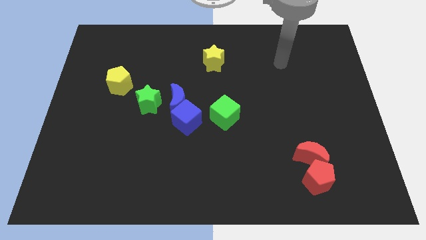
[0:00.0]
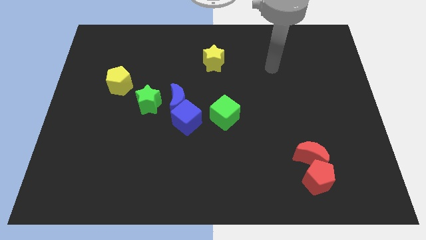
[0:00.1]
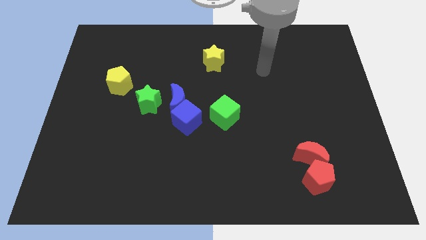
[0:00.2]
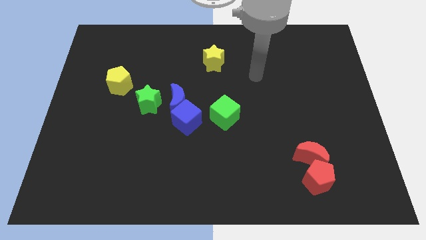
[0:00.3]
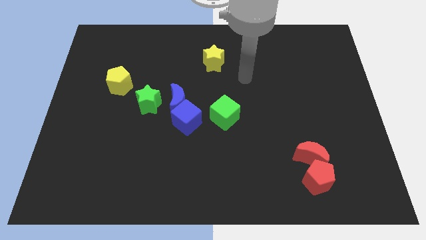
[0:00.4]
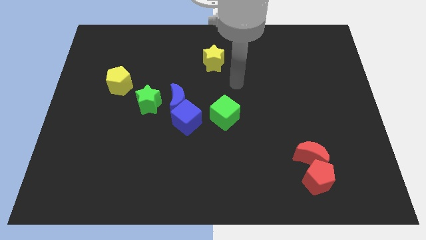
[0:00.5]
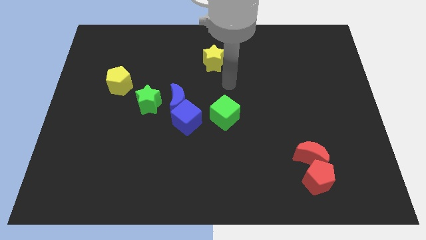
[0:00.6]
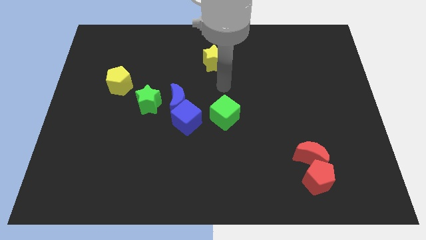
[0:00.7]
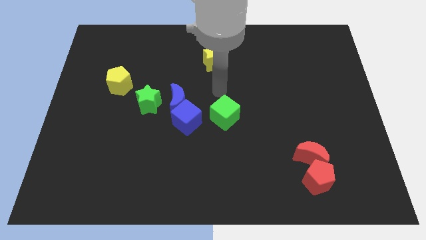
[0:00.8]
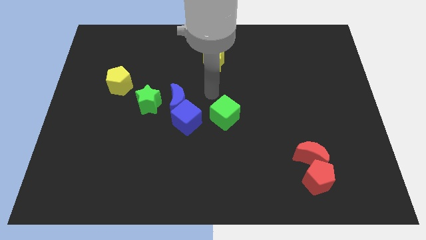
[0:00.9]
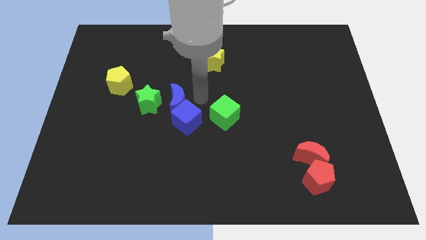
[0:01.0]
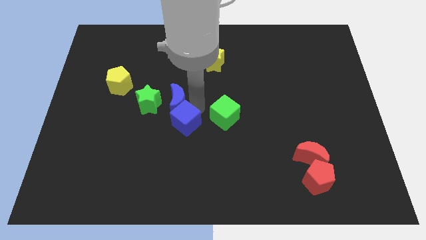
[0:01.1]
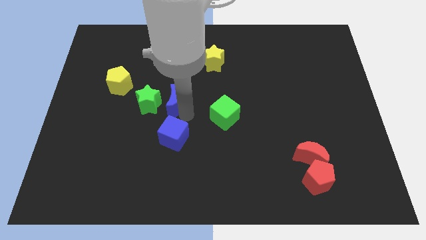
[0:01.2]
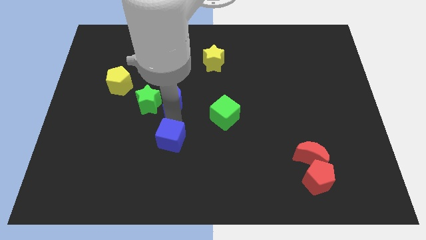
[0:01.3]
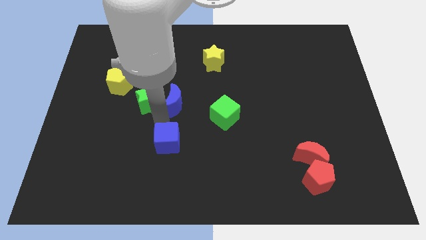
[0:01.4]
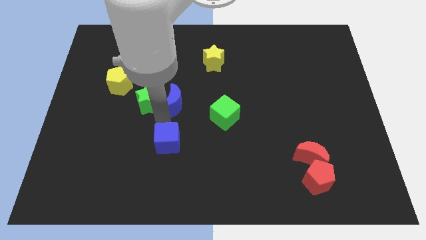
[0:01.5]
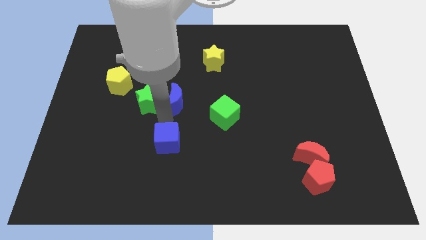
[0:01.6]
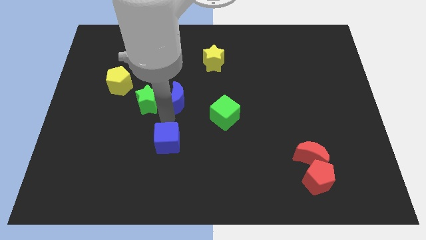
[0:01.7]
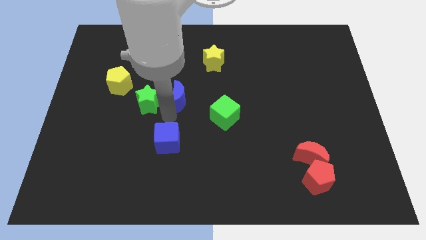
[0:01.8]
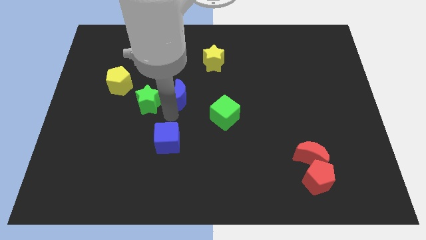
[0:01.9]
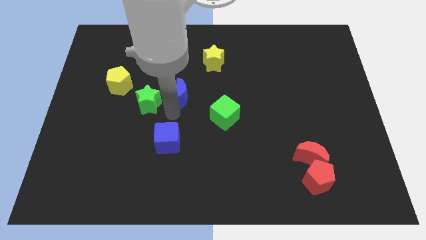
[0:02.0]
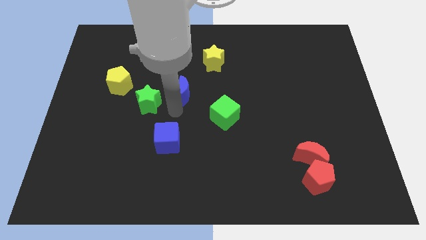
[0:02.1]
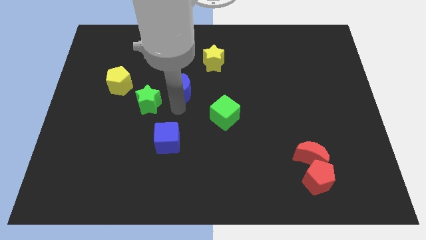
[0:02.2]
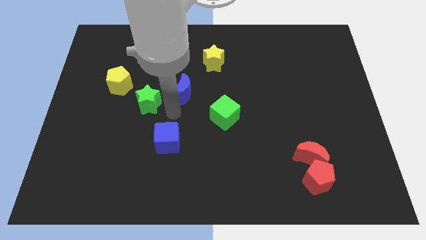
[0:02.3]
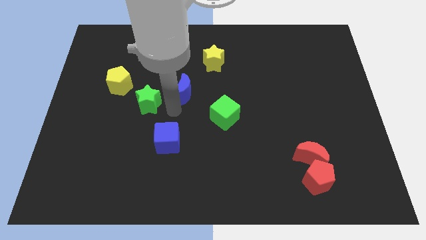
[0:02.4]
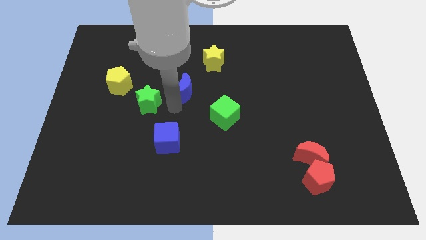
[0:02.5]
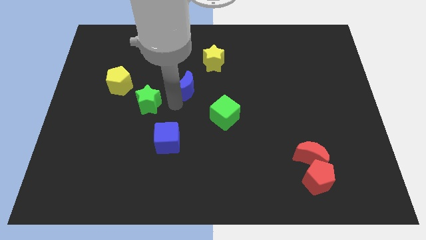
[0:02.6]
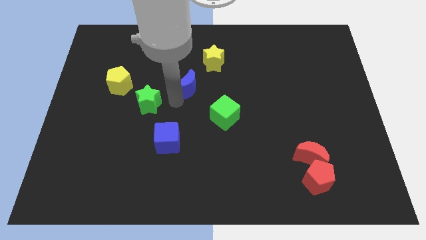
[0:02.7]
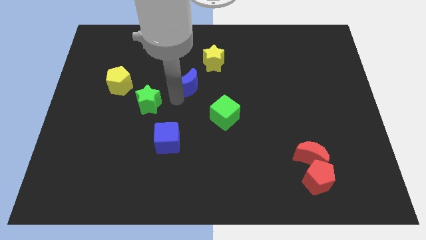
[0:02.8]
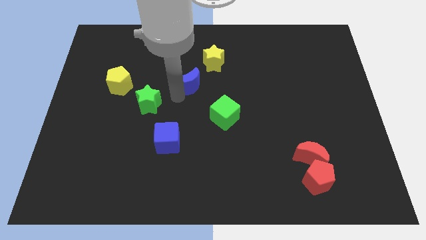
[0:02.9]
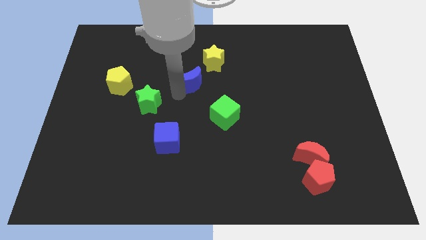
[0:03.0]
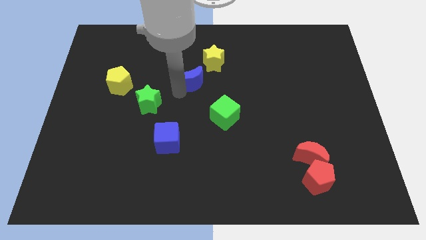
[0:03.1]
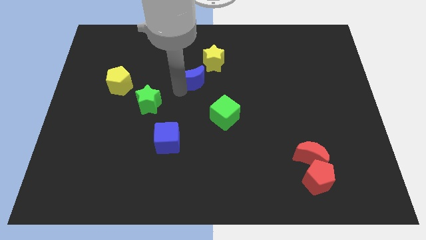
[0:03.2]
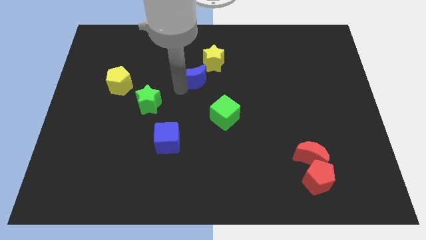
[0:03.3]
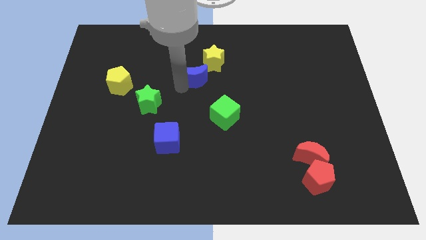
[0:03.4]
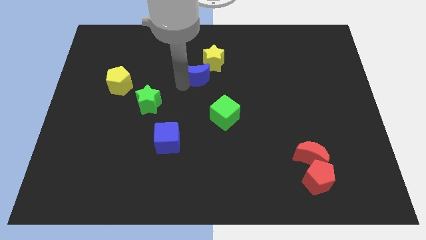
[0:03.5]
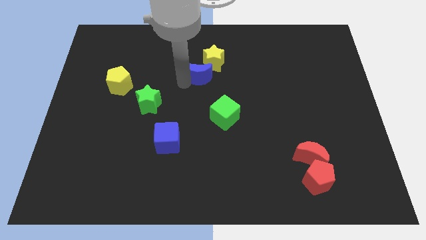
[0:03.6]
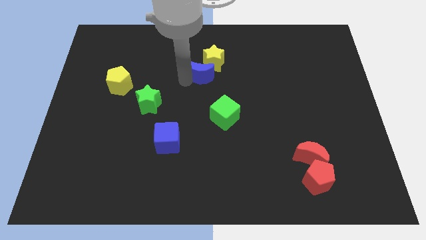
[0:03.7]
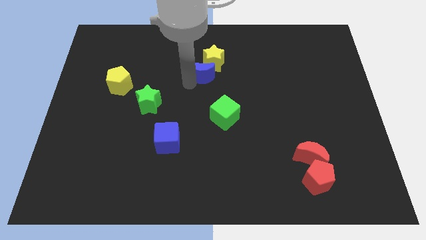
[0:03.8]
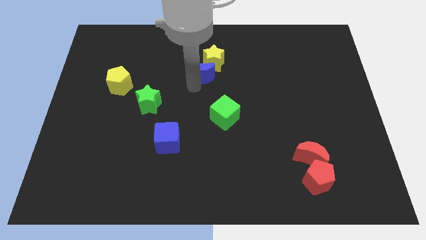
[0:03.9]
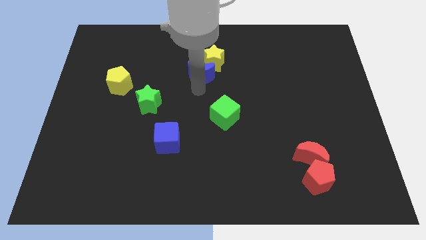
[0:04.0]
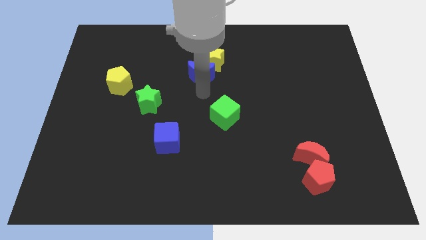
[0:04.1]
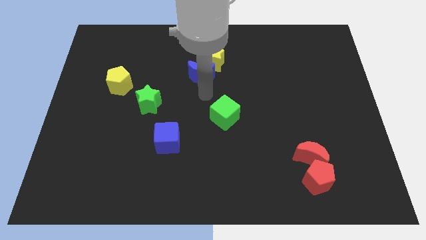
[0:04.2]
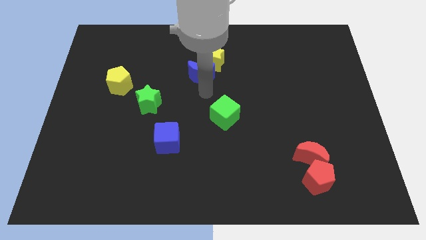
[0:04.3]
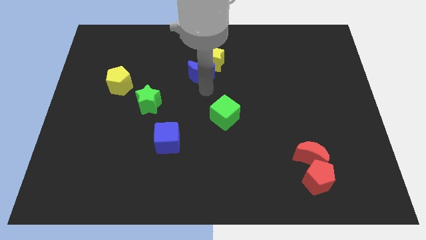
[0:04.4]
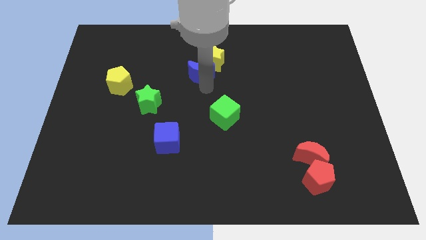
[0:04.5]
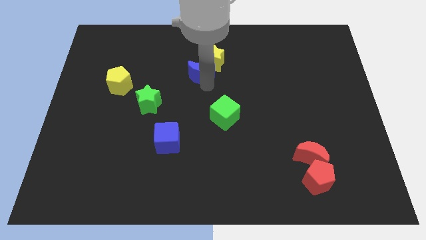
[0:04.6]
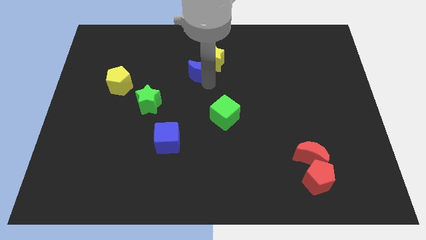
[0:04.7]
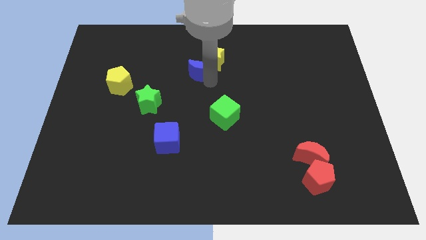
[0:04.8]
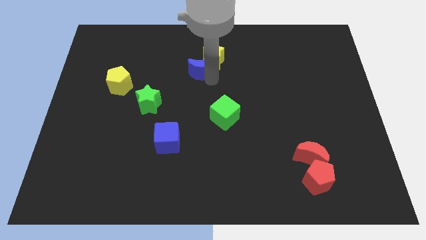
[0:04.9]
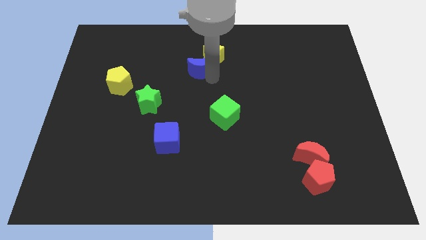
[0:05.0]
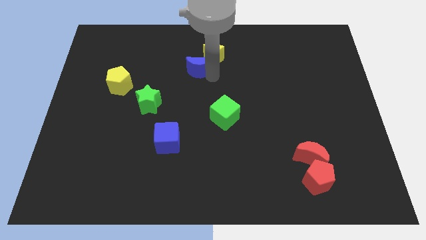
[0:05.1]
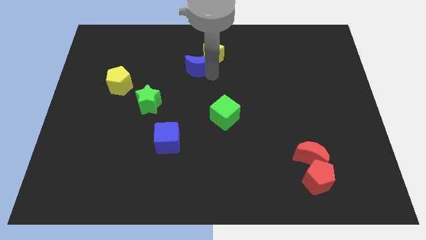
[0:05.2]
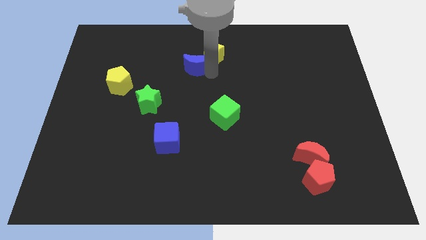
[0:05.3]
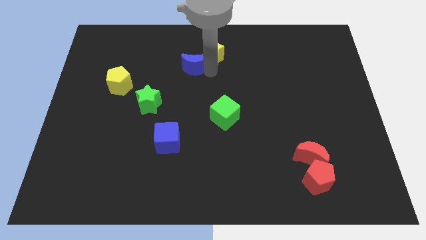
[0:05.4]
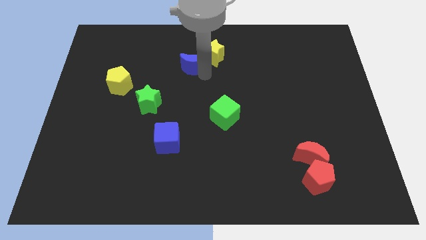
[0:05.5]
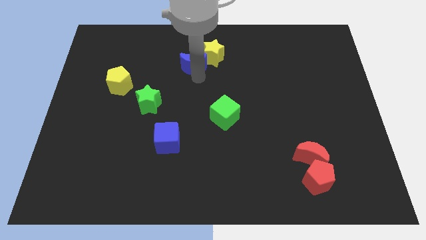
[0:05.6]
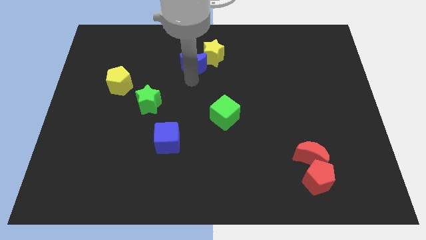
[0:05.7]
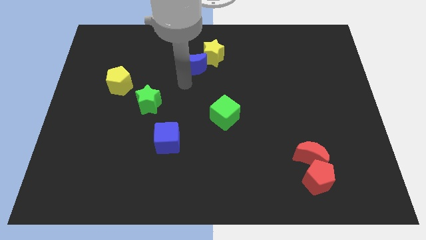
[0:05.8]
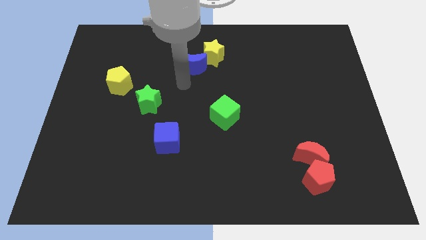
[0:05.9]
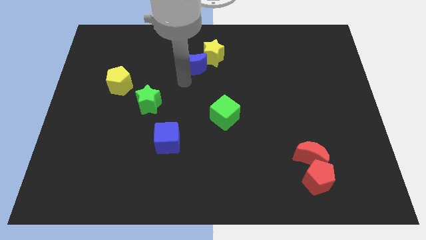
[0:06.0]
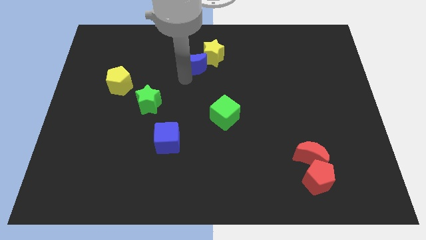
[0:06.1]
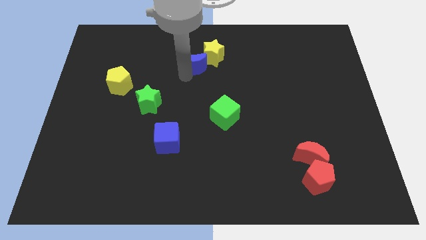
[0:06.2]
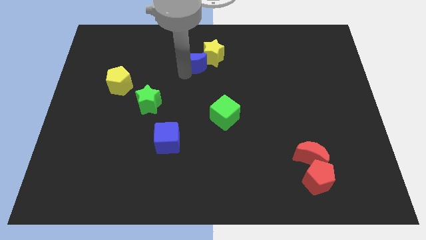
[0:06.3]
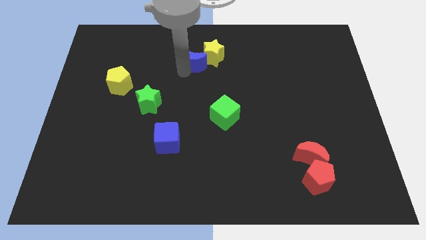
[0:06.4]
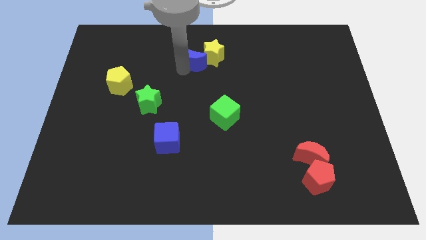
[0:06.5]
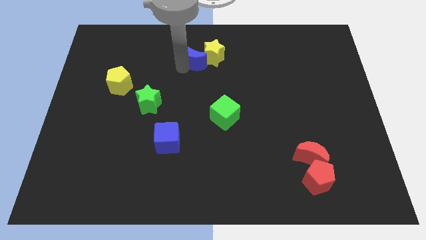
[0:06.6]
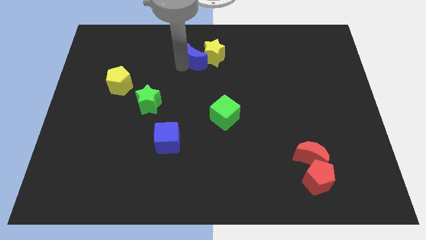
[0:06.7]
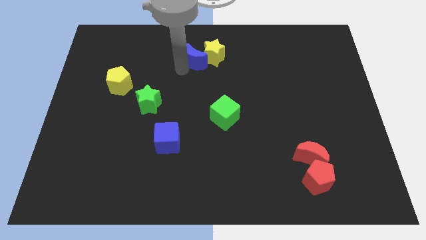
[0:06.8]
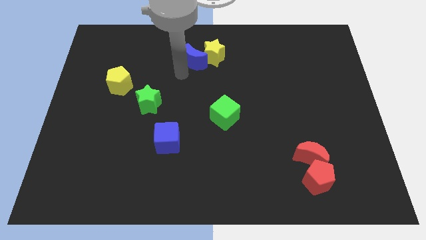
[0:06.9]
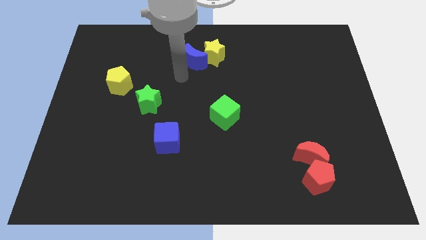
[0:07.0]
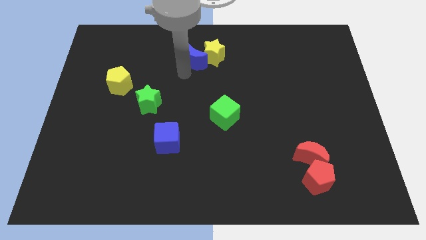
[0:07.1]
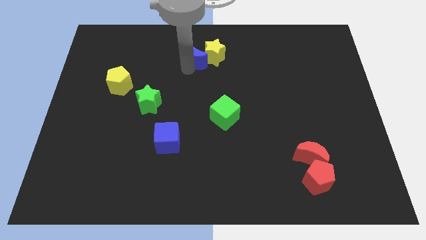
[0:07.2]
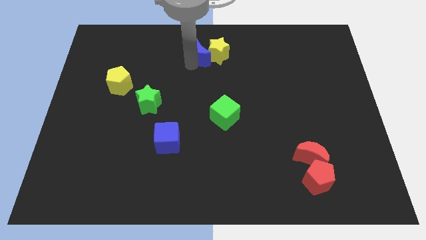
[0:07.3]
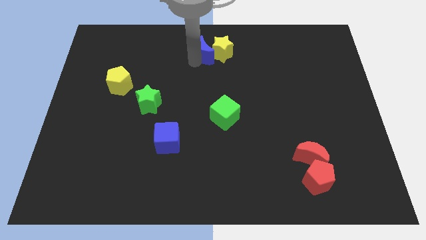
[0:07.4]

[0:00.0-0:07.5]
slide the blue moon to the top side
